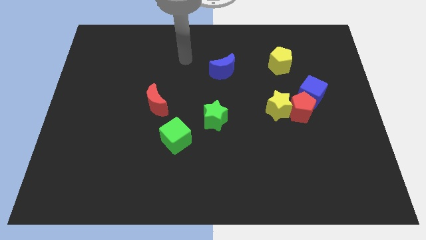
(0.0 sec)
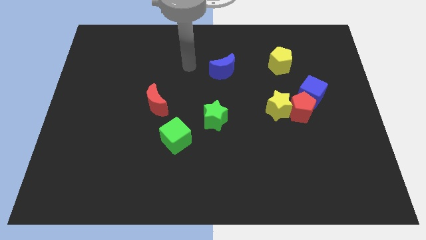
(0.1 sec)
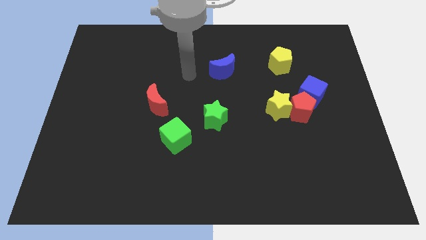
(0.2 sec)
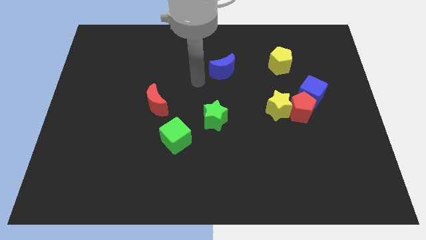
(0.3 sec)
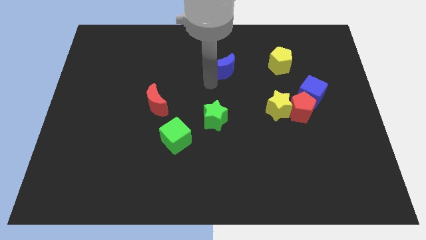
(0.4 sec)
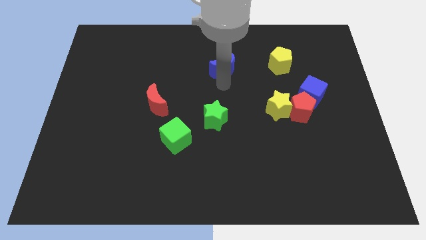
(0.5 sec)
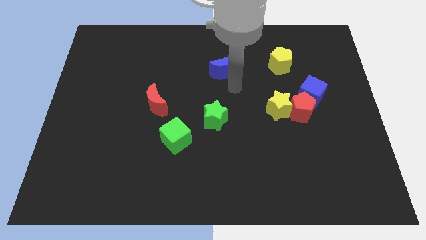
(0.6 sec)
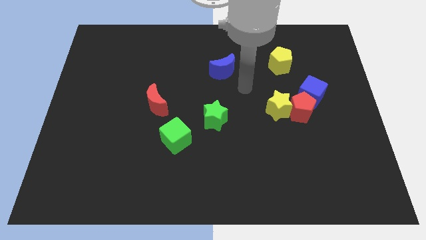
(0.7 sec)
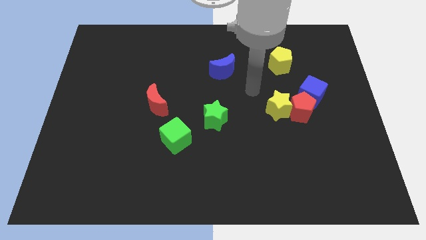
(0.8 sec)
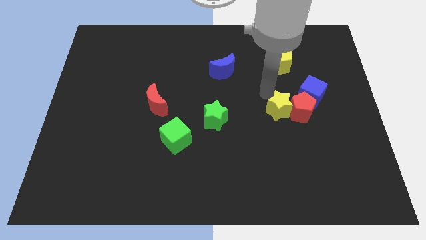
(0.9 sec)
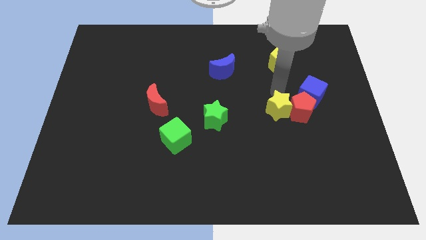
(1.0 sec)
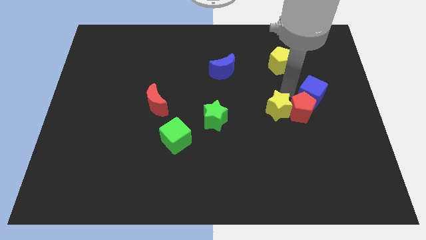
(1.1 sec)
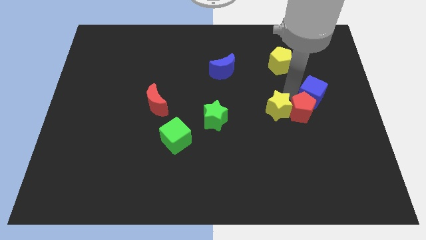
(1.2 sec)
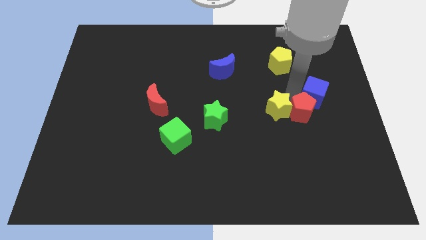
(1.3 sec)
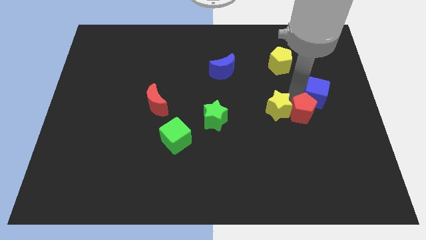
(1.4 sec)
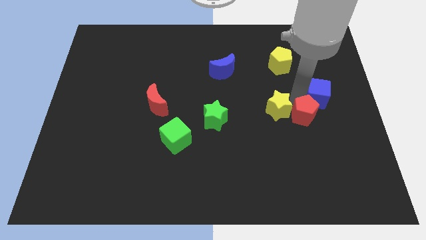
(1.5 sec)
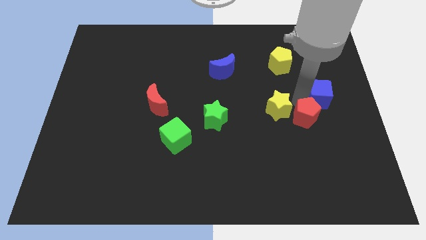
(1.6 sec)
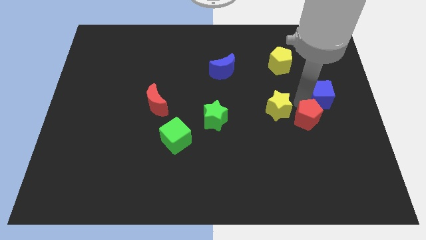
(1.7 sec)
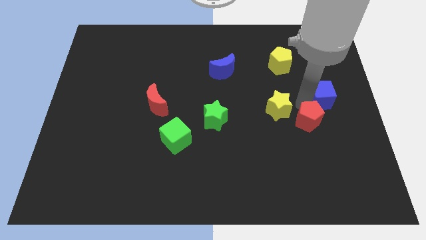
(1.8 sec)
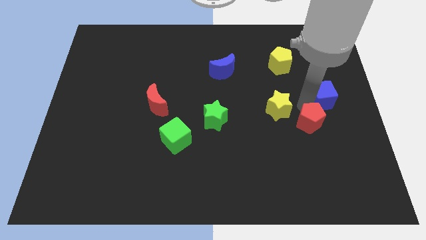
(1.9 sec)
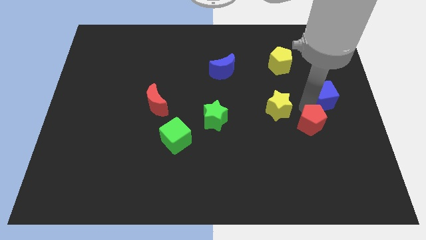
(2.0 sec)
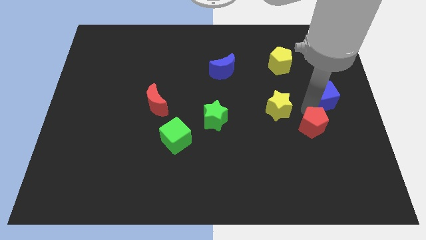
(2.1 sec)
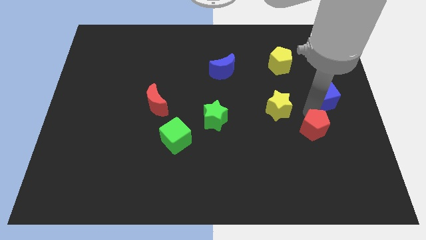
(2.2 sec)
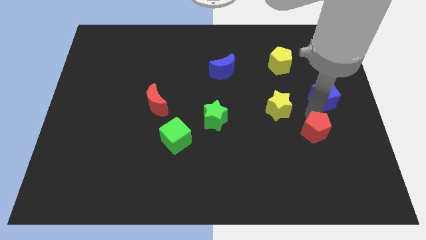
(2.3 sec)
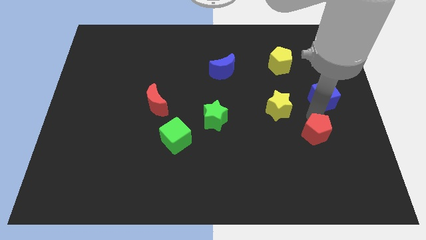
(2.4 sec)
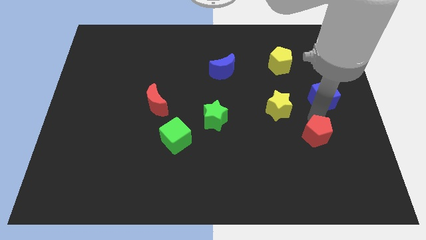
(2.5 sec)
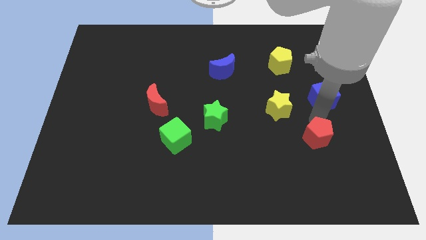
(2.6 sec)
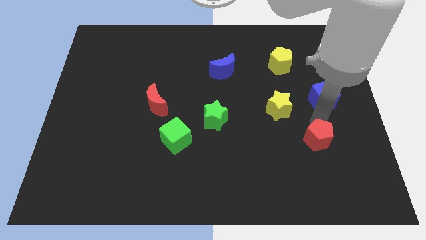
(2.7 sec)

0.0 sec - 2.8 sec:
move the red pentagon away from the yellow star and blue cube

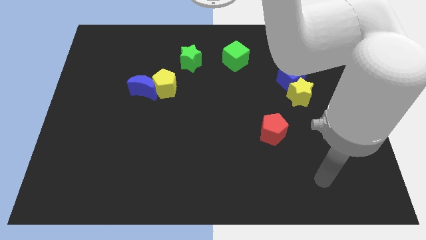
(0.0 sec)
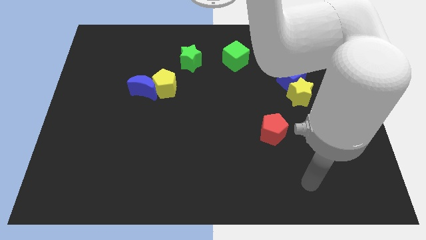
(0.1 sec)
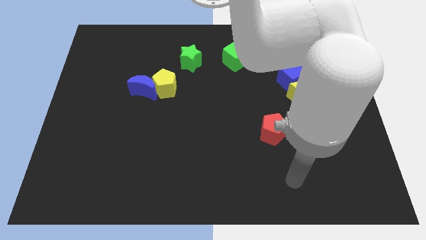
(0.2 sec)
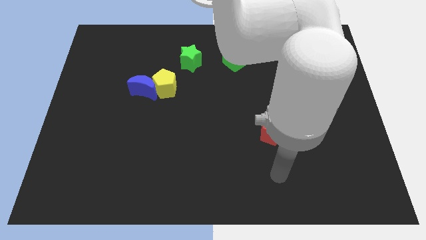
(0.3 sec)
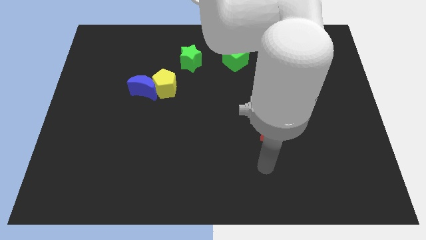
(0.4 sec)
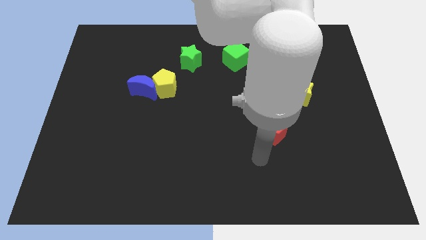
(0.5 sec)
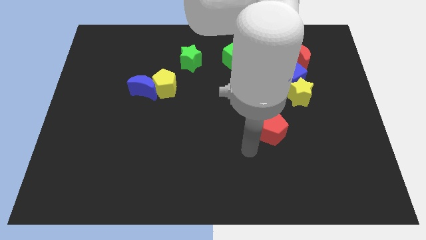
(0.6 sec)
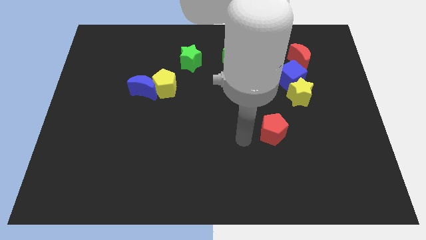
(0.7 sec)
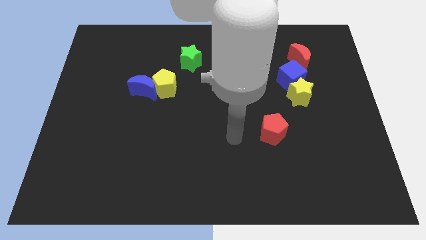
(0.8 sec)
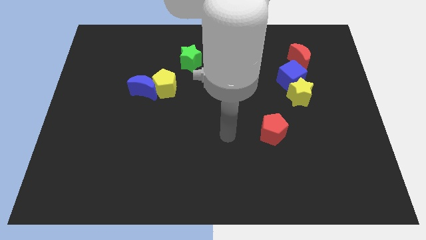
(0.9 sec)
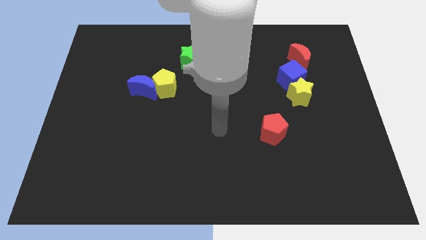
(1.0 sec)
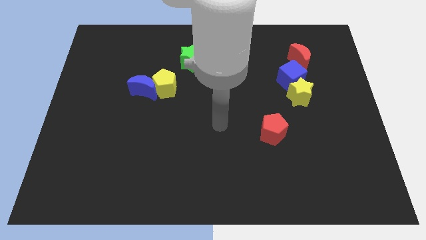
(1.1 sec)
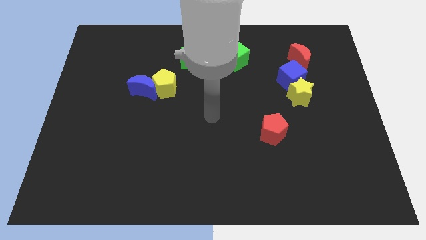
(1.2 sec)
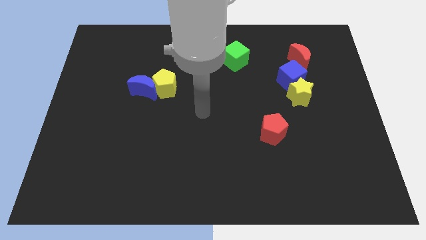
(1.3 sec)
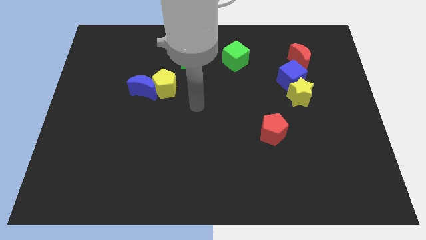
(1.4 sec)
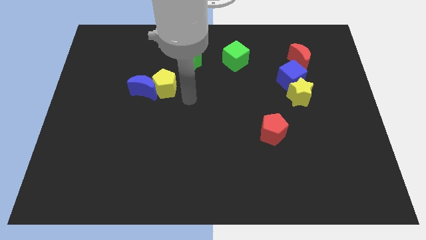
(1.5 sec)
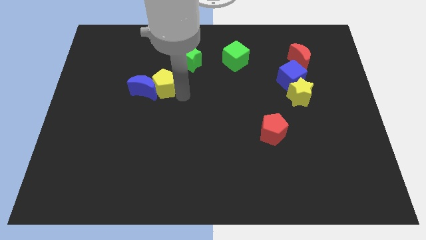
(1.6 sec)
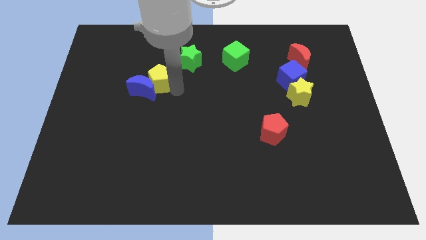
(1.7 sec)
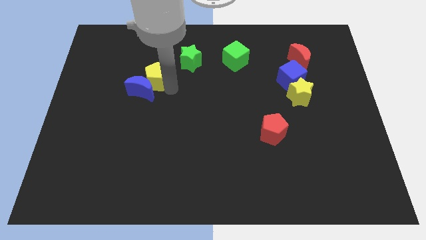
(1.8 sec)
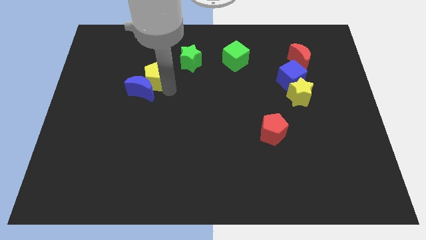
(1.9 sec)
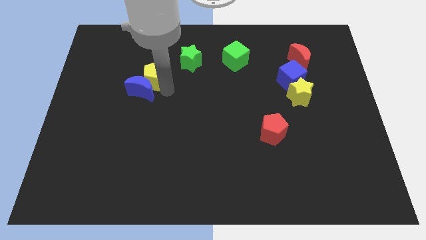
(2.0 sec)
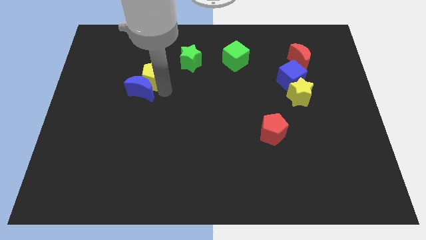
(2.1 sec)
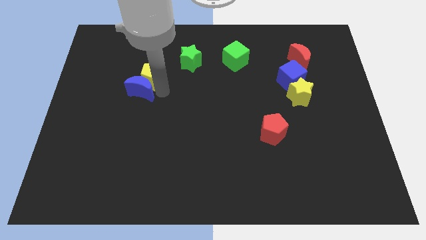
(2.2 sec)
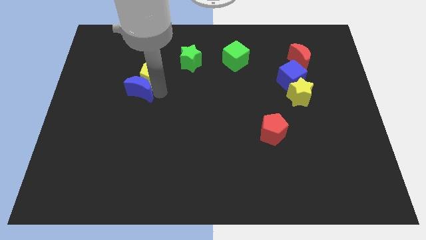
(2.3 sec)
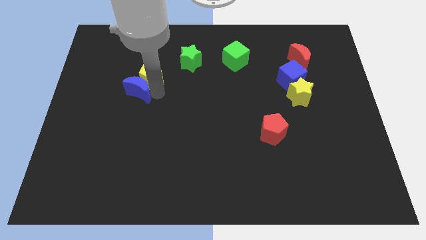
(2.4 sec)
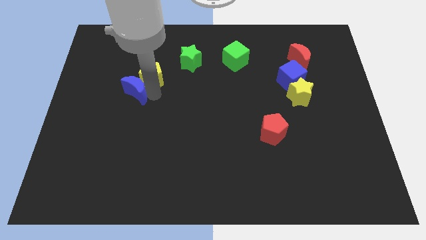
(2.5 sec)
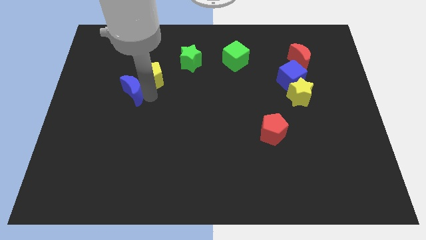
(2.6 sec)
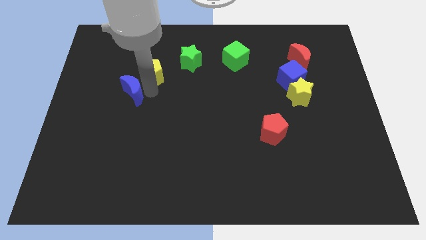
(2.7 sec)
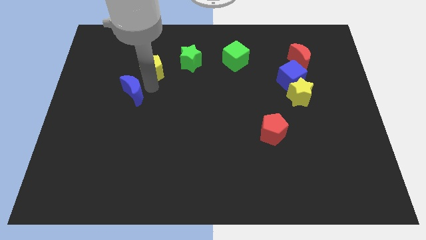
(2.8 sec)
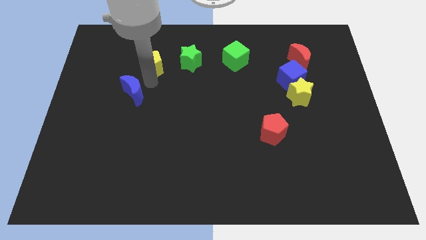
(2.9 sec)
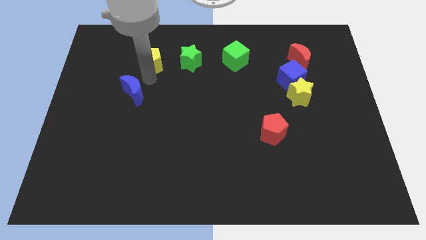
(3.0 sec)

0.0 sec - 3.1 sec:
pull the blue moon apart from the yellow pentagon

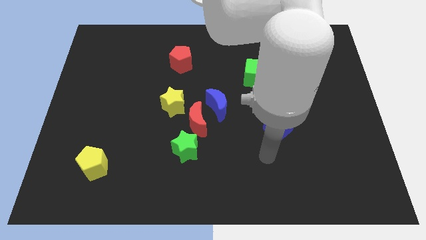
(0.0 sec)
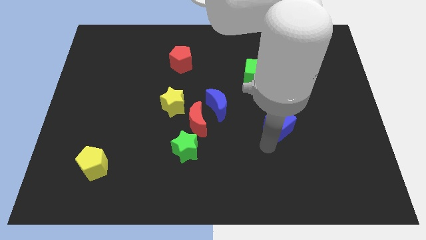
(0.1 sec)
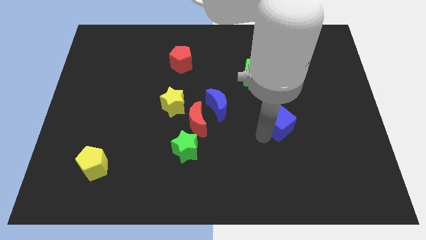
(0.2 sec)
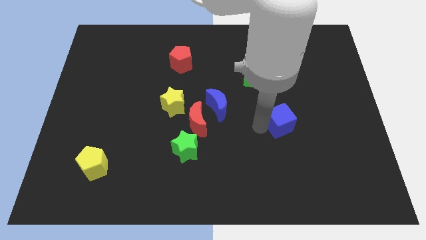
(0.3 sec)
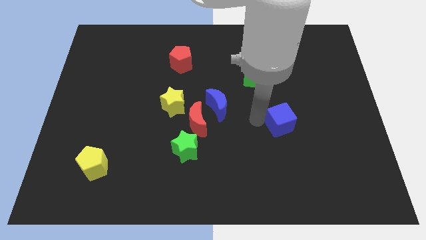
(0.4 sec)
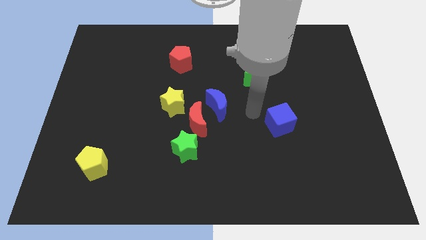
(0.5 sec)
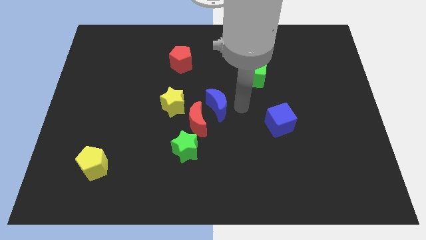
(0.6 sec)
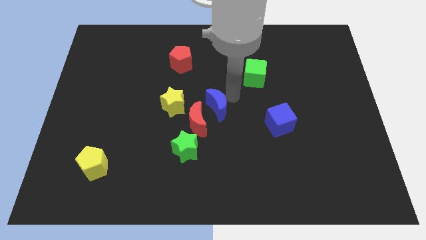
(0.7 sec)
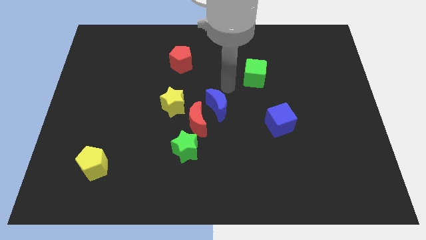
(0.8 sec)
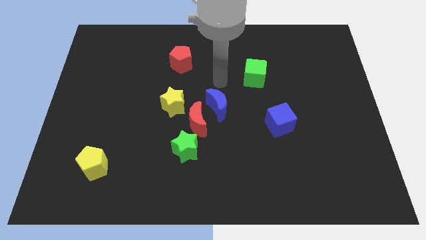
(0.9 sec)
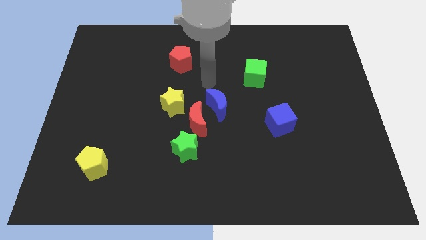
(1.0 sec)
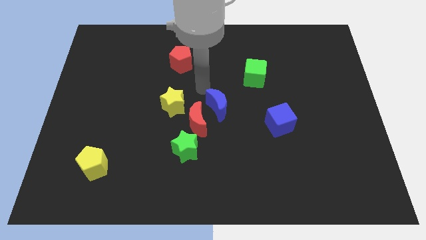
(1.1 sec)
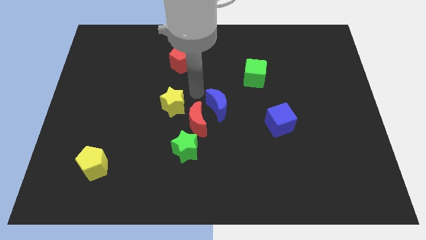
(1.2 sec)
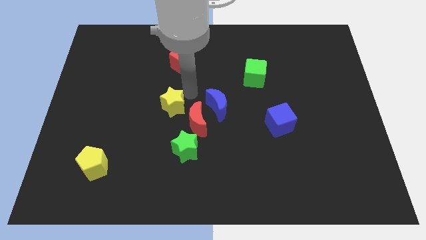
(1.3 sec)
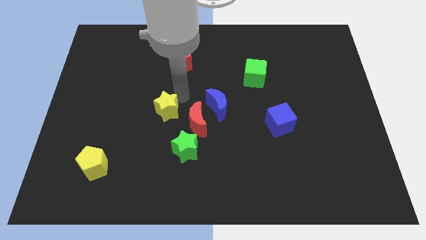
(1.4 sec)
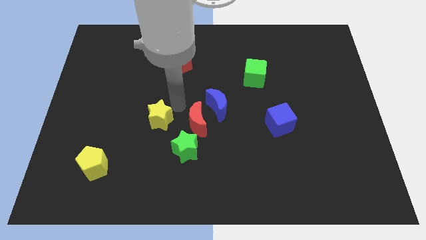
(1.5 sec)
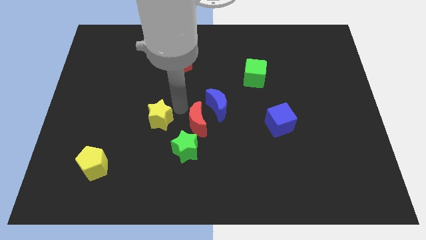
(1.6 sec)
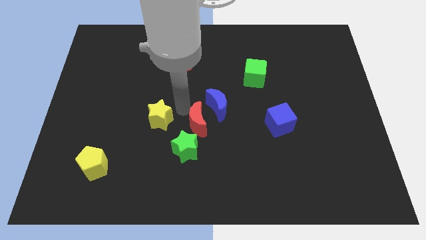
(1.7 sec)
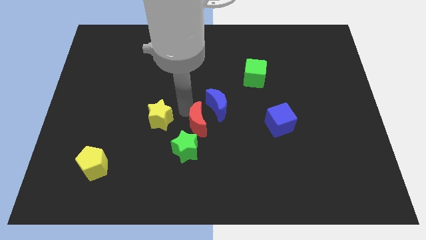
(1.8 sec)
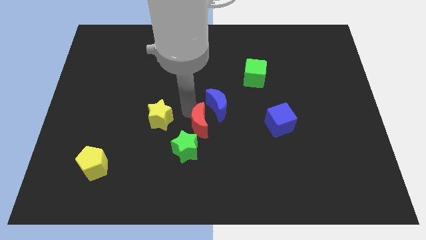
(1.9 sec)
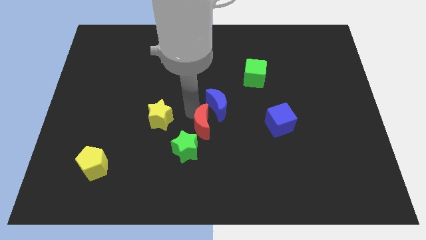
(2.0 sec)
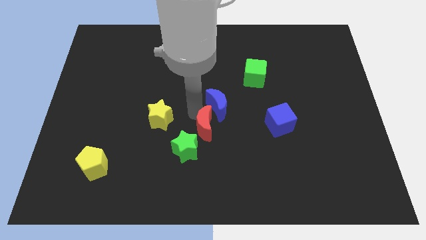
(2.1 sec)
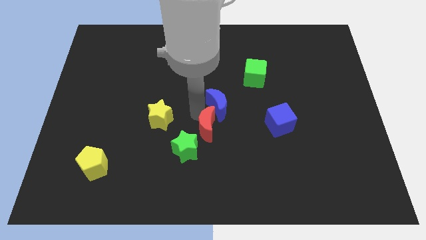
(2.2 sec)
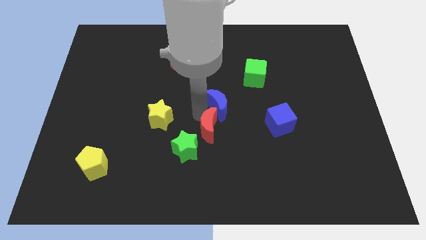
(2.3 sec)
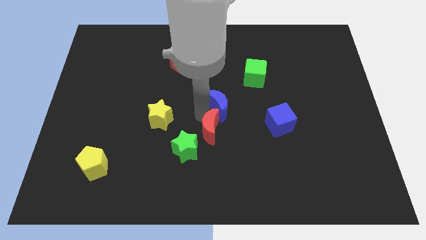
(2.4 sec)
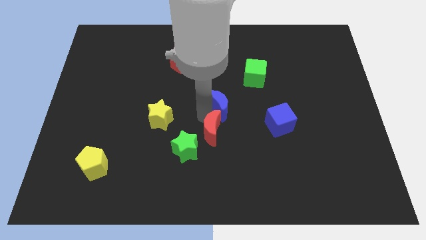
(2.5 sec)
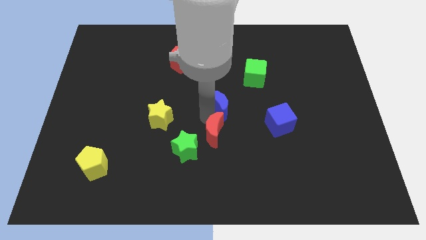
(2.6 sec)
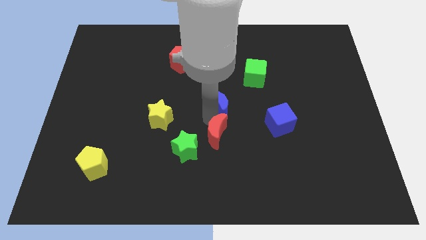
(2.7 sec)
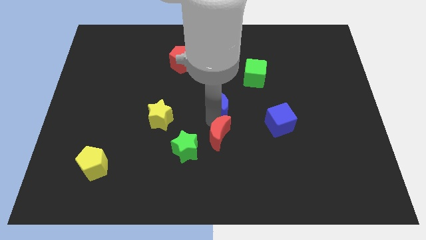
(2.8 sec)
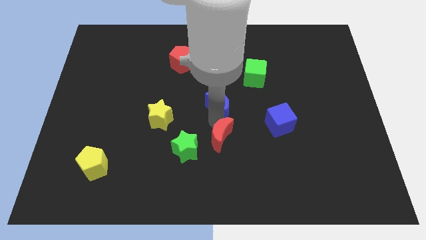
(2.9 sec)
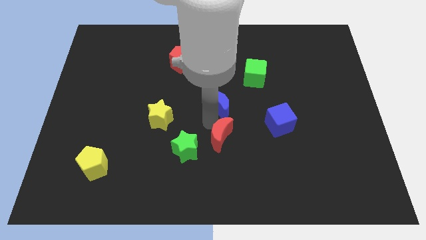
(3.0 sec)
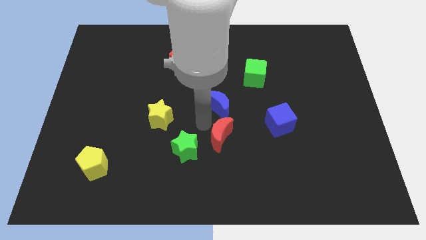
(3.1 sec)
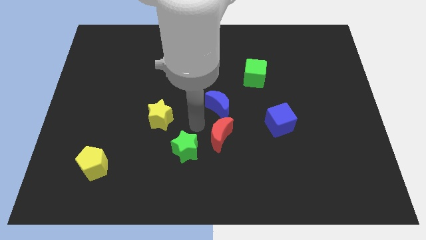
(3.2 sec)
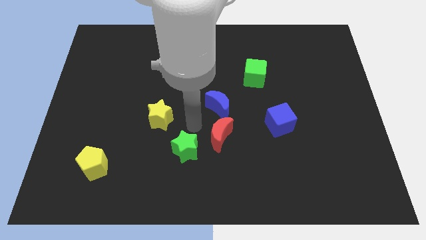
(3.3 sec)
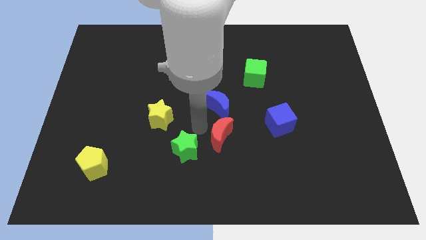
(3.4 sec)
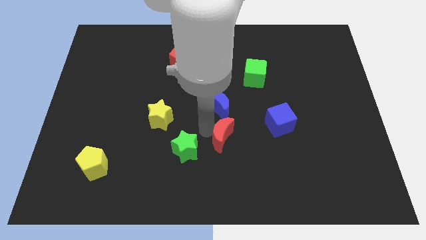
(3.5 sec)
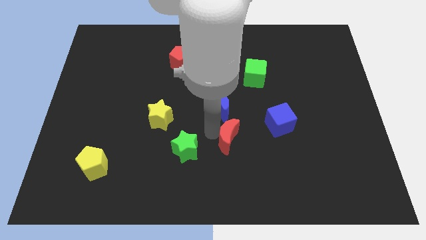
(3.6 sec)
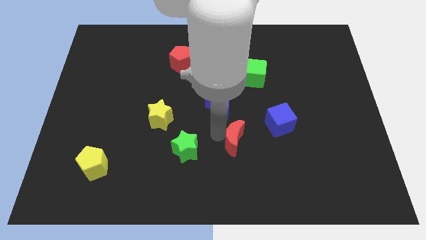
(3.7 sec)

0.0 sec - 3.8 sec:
separate the red moon from the group of blocks
